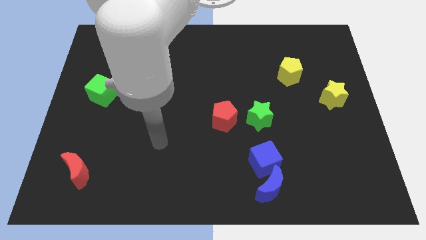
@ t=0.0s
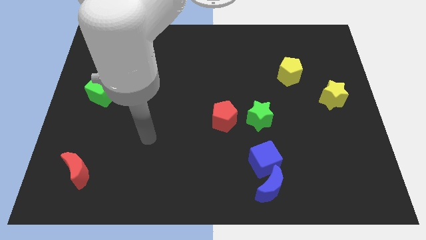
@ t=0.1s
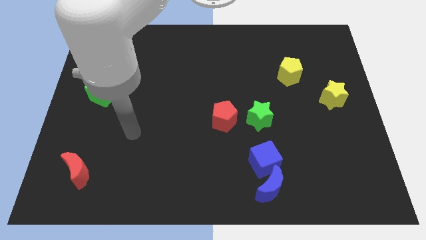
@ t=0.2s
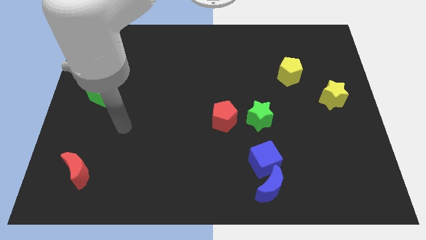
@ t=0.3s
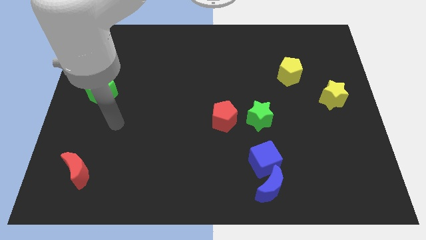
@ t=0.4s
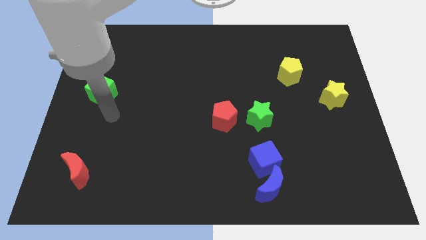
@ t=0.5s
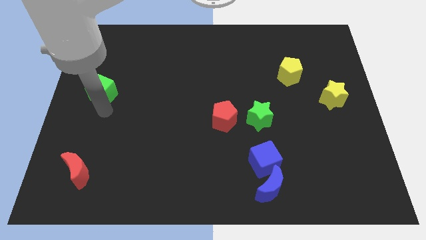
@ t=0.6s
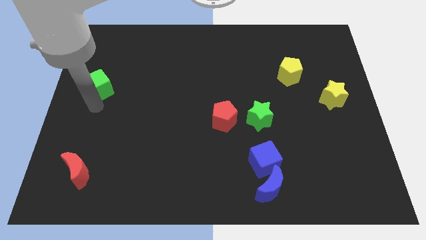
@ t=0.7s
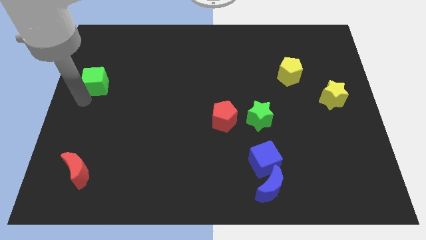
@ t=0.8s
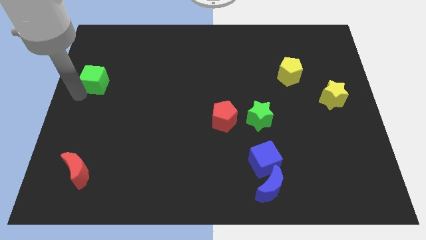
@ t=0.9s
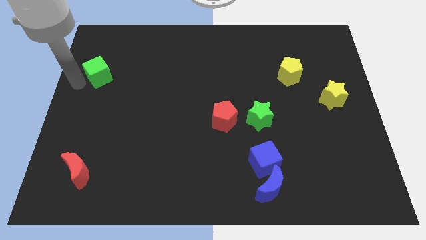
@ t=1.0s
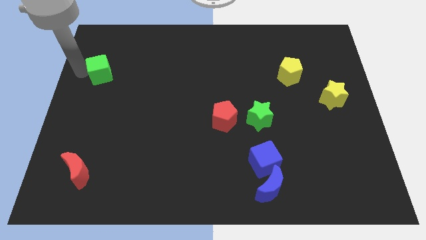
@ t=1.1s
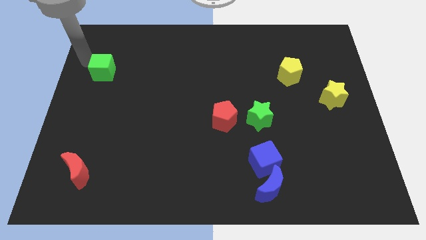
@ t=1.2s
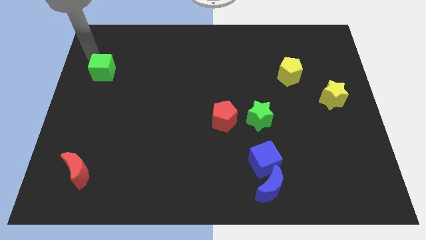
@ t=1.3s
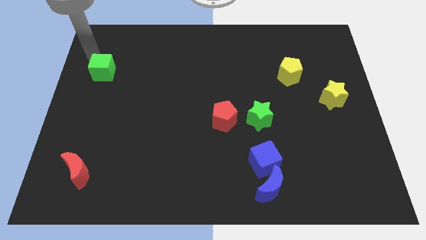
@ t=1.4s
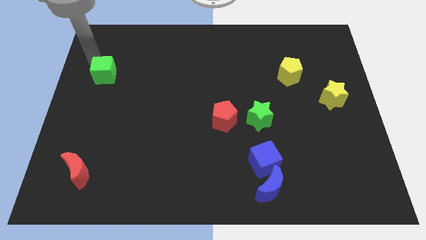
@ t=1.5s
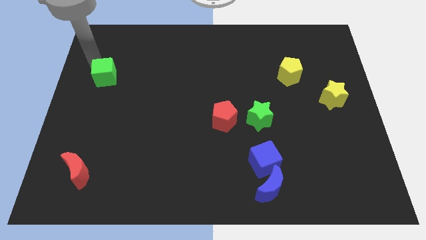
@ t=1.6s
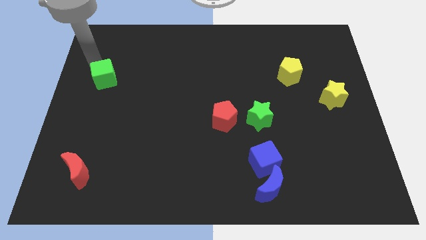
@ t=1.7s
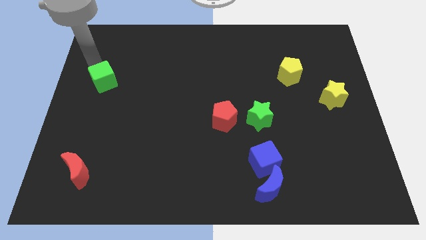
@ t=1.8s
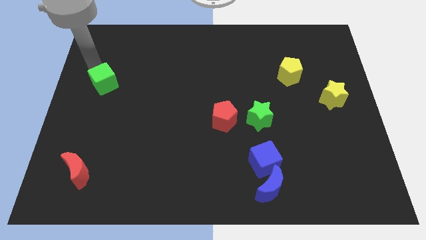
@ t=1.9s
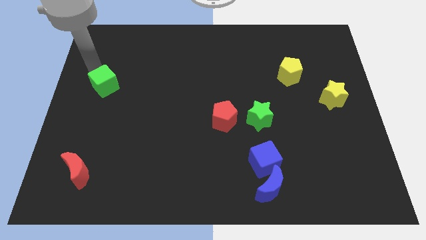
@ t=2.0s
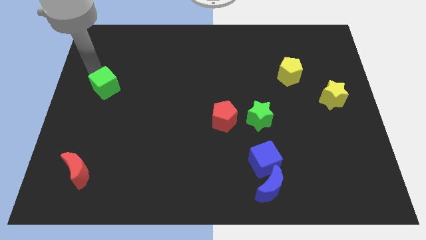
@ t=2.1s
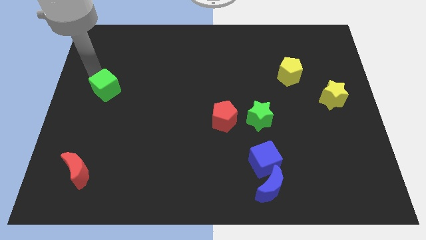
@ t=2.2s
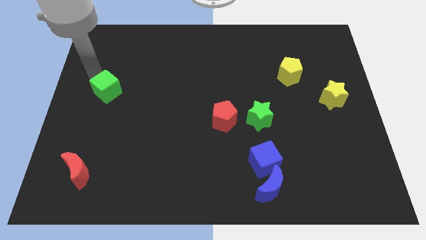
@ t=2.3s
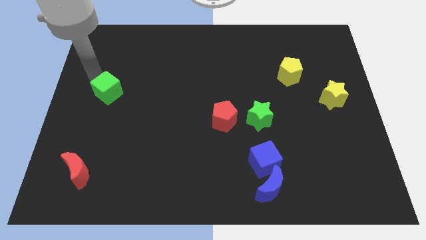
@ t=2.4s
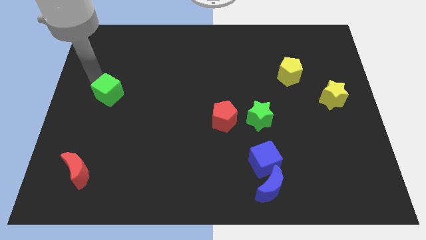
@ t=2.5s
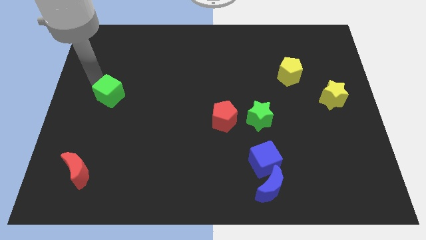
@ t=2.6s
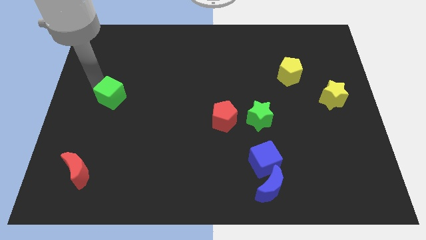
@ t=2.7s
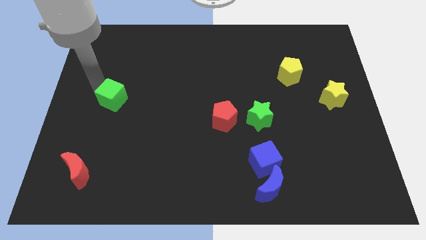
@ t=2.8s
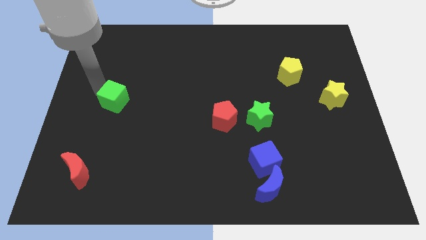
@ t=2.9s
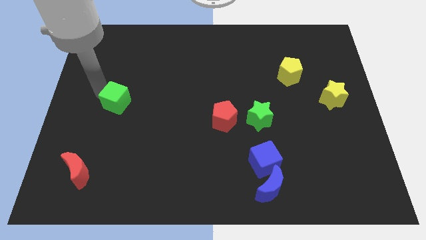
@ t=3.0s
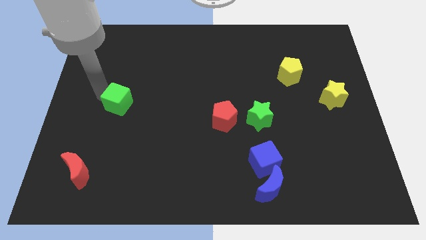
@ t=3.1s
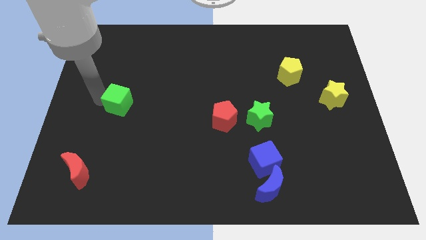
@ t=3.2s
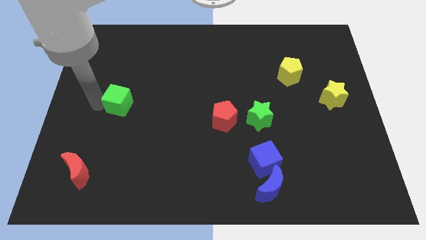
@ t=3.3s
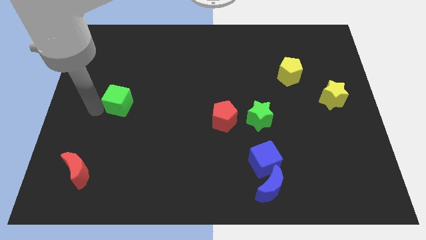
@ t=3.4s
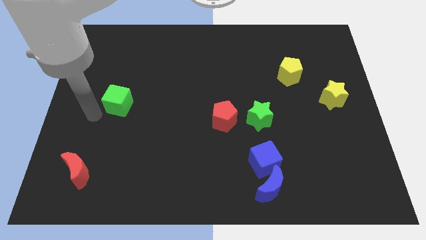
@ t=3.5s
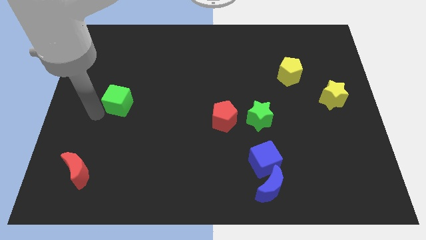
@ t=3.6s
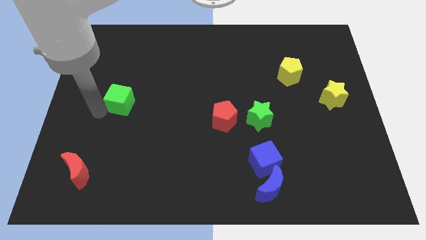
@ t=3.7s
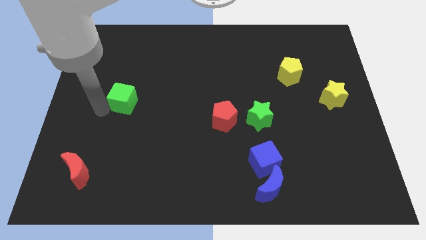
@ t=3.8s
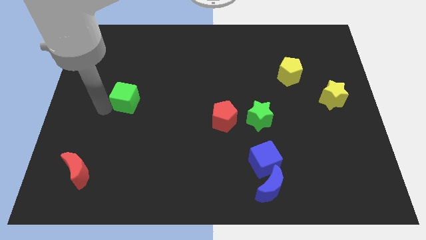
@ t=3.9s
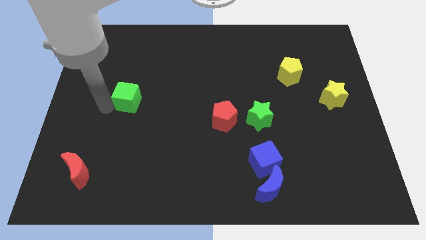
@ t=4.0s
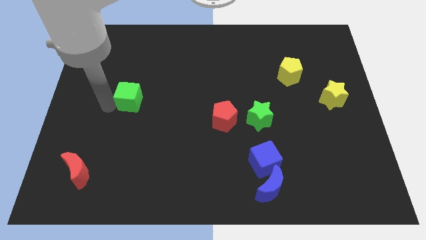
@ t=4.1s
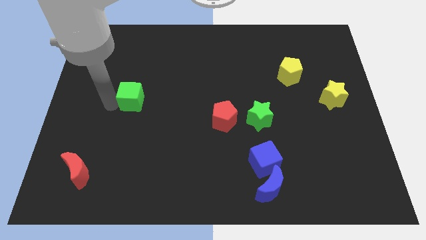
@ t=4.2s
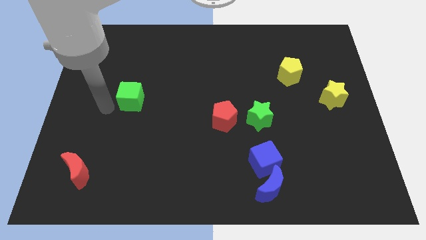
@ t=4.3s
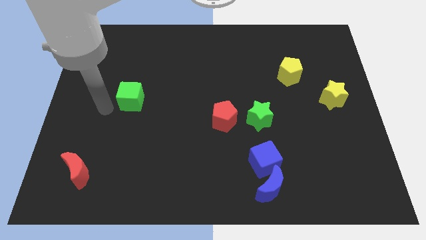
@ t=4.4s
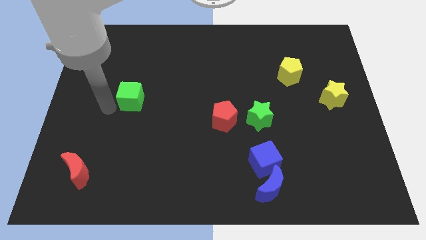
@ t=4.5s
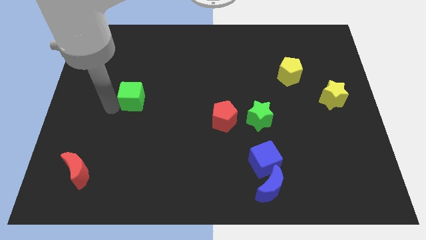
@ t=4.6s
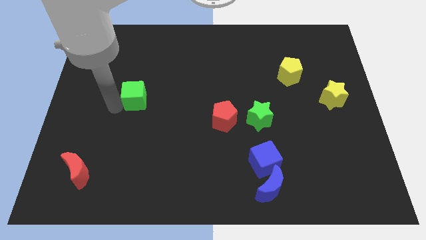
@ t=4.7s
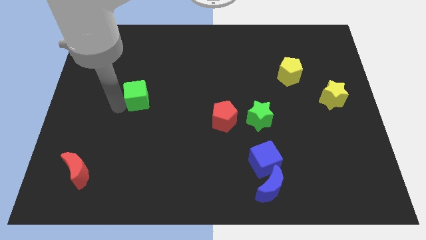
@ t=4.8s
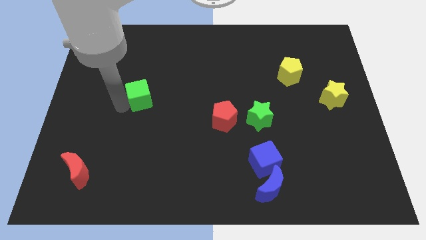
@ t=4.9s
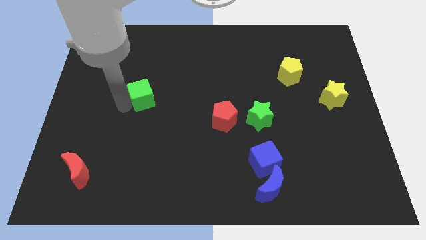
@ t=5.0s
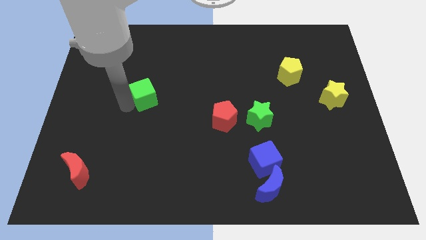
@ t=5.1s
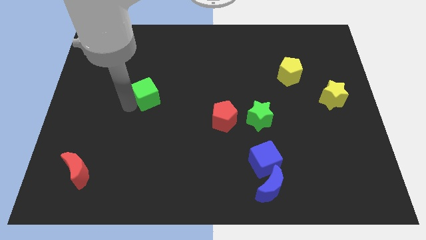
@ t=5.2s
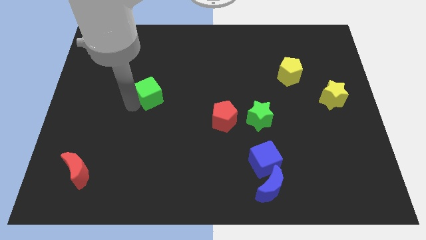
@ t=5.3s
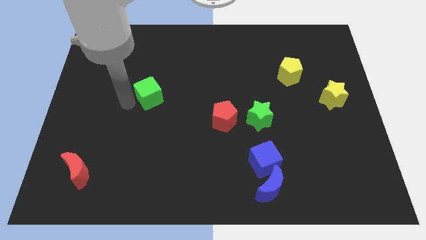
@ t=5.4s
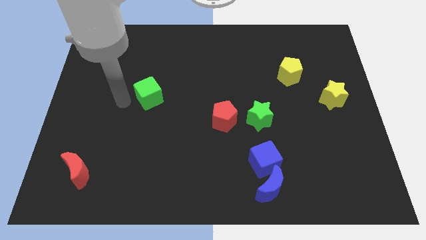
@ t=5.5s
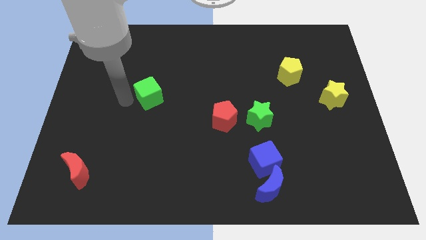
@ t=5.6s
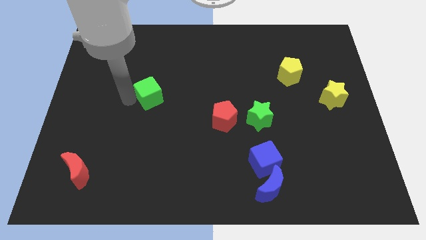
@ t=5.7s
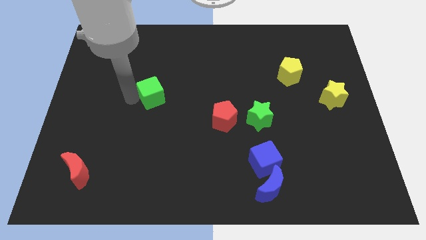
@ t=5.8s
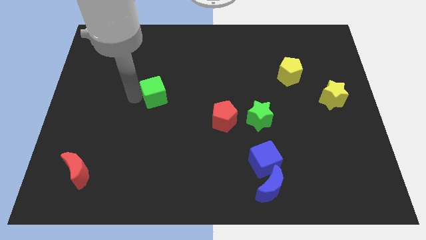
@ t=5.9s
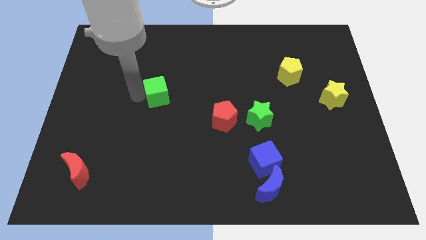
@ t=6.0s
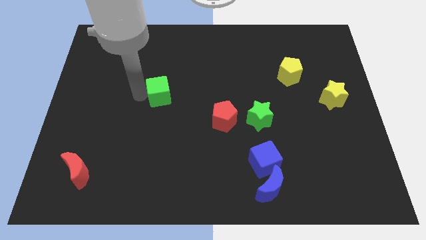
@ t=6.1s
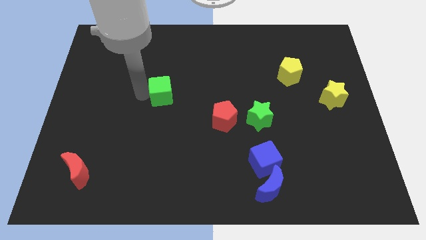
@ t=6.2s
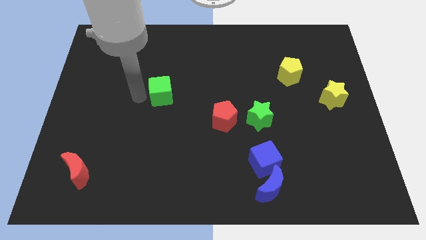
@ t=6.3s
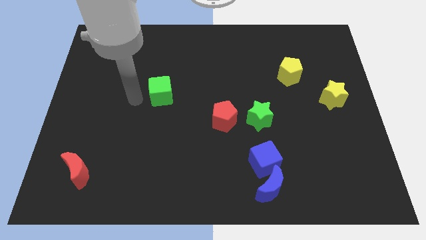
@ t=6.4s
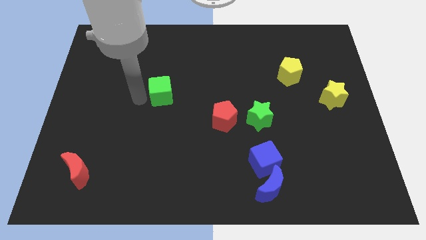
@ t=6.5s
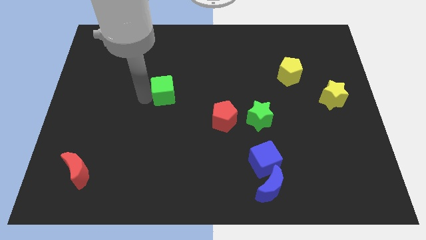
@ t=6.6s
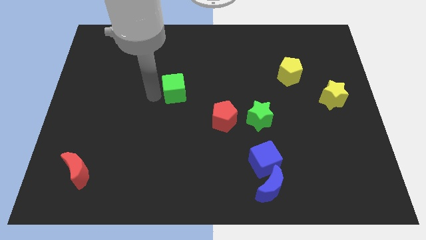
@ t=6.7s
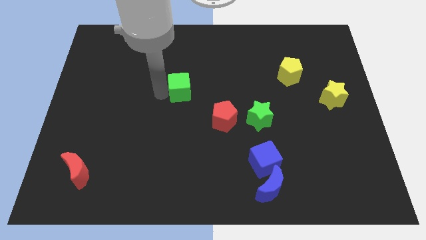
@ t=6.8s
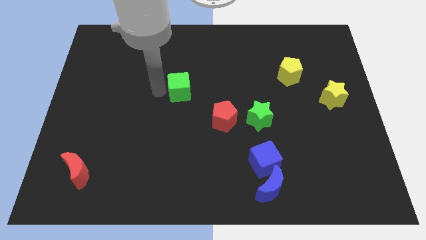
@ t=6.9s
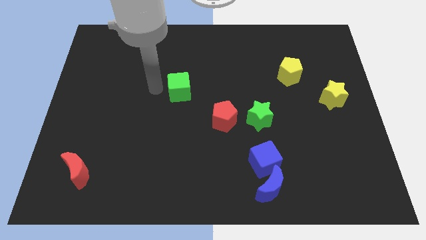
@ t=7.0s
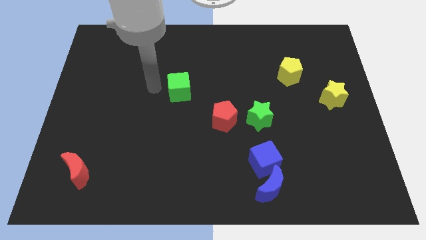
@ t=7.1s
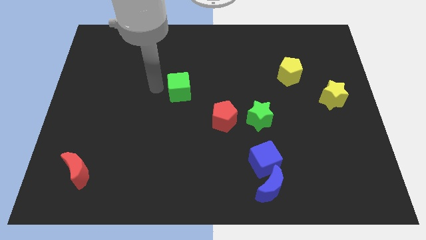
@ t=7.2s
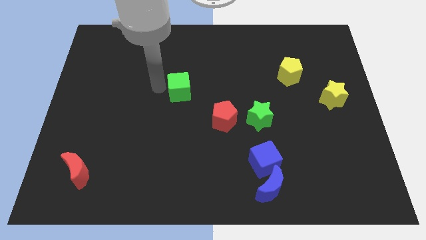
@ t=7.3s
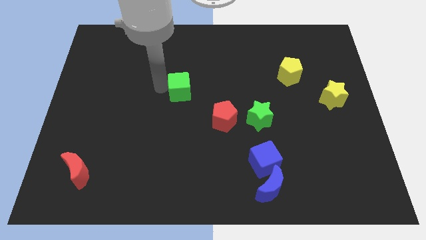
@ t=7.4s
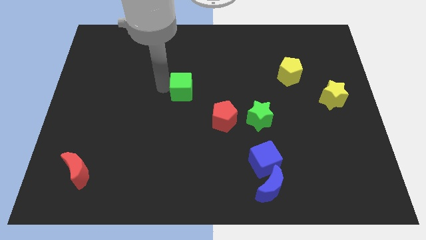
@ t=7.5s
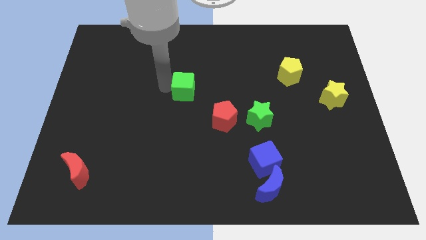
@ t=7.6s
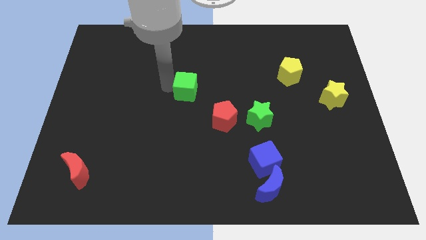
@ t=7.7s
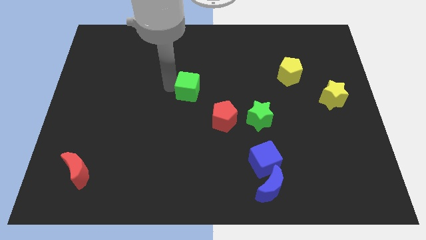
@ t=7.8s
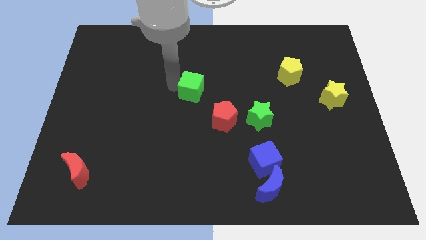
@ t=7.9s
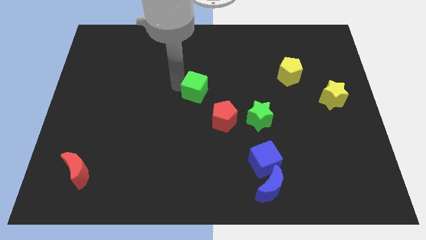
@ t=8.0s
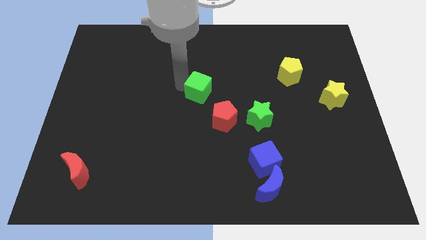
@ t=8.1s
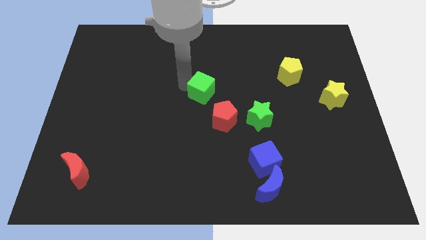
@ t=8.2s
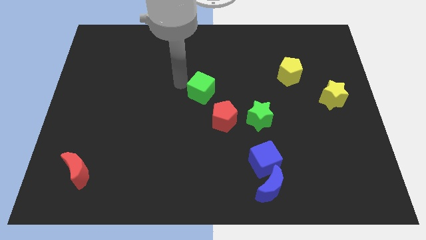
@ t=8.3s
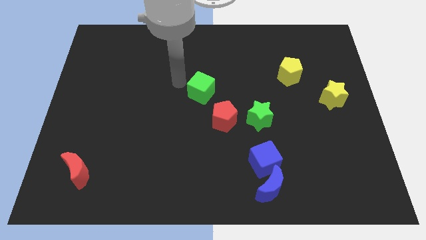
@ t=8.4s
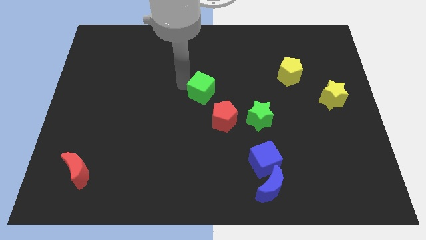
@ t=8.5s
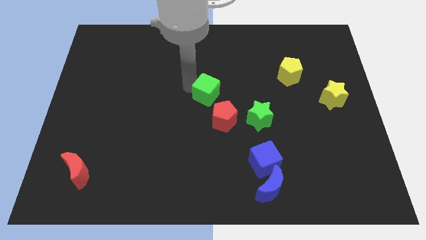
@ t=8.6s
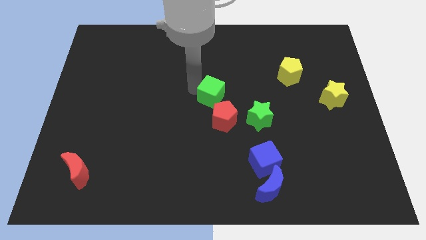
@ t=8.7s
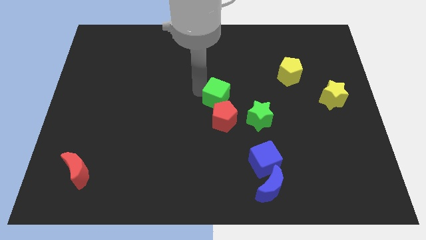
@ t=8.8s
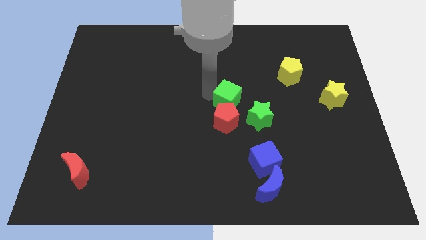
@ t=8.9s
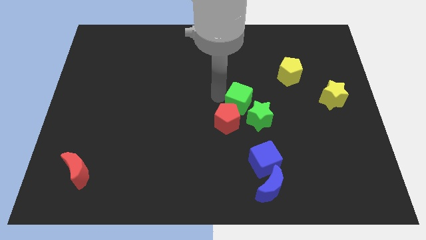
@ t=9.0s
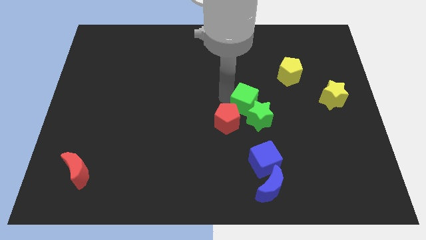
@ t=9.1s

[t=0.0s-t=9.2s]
move the green cube close to the green star
